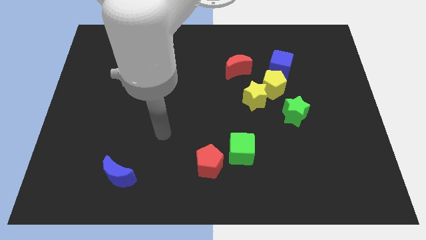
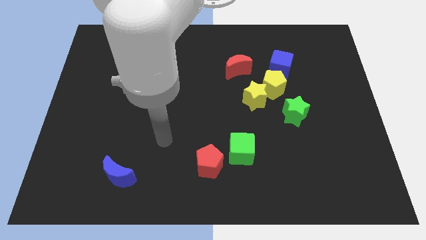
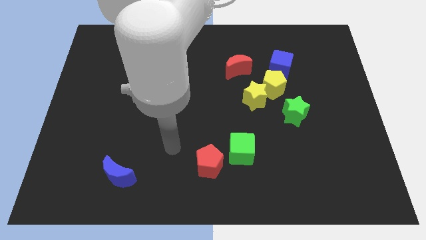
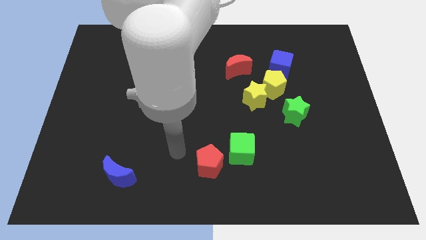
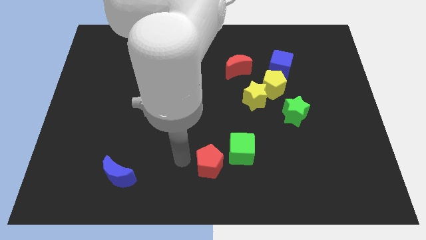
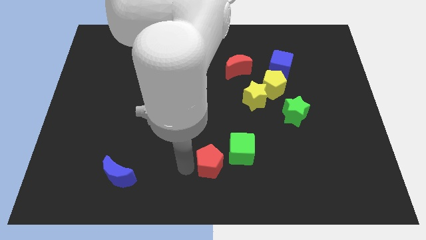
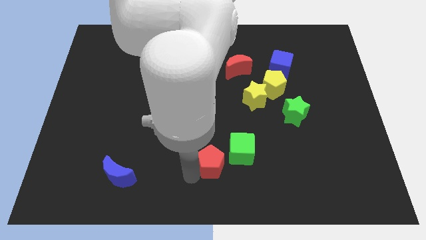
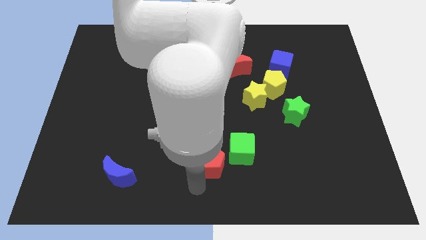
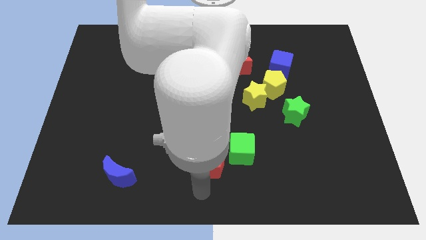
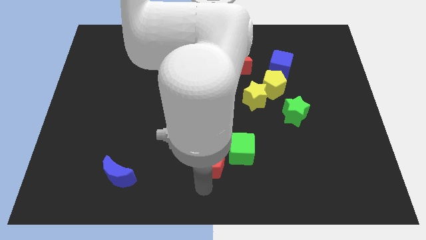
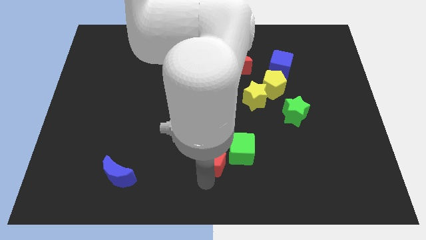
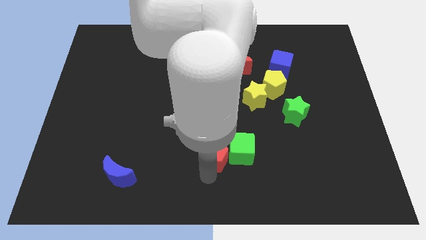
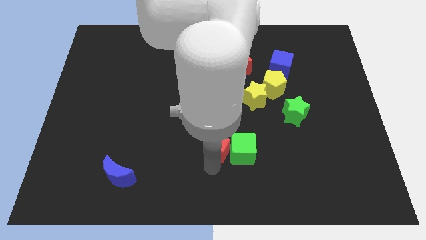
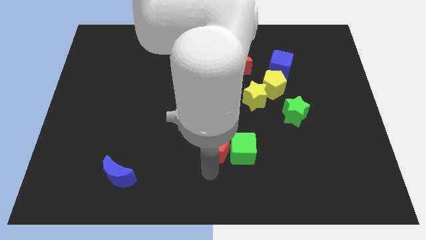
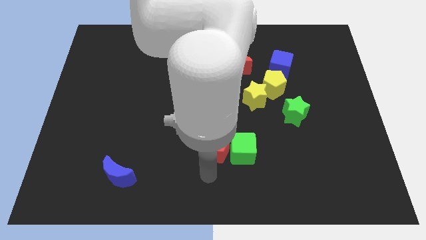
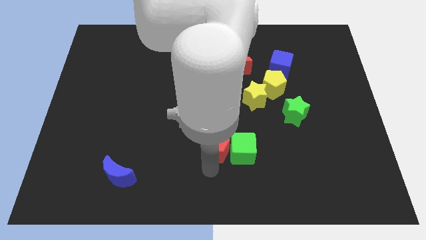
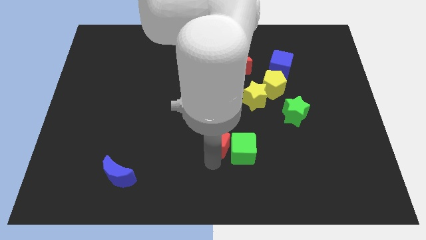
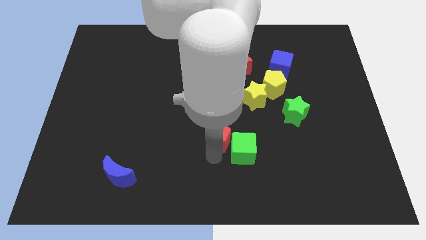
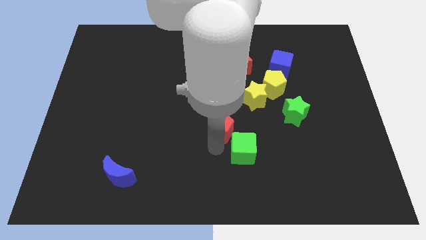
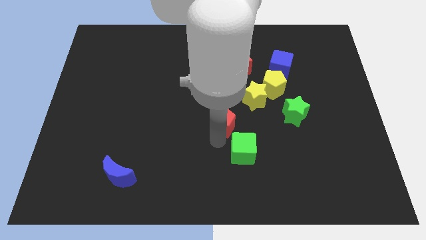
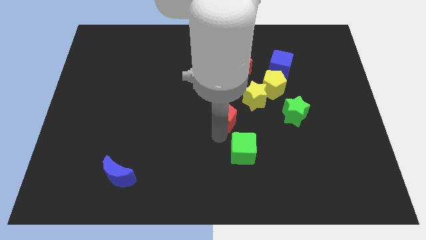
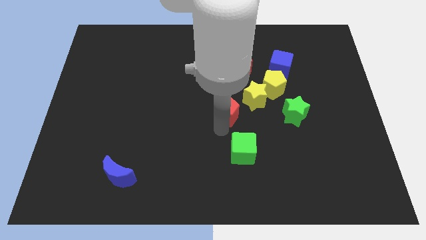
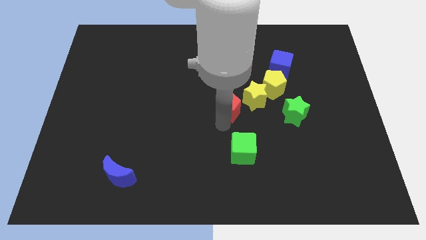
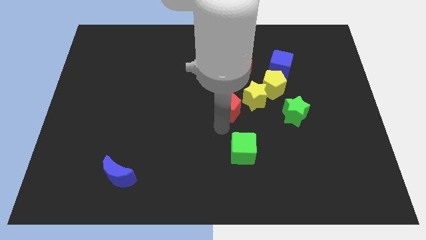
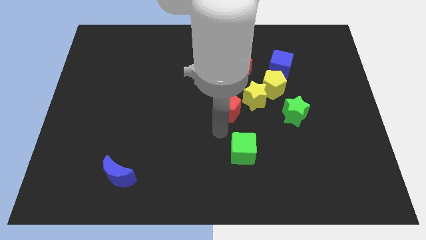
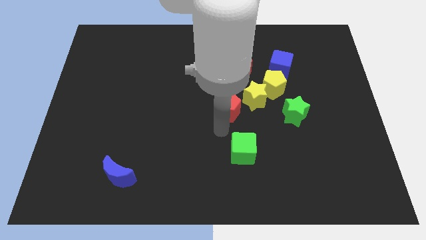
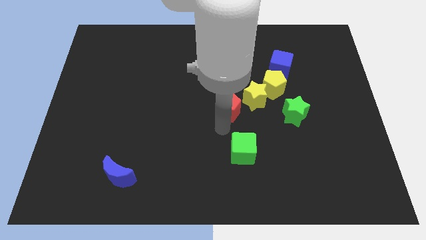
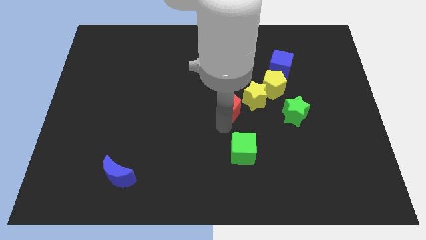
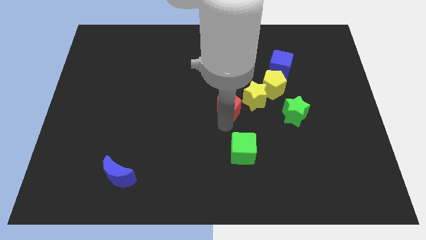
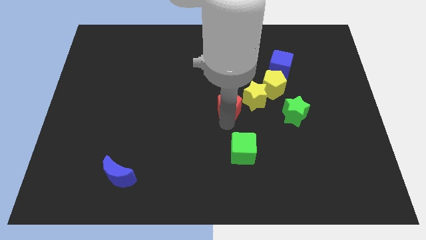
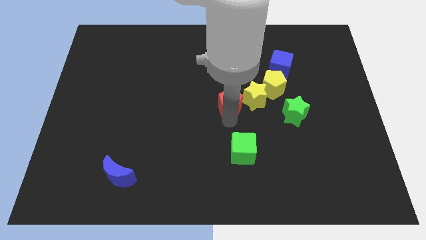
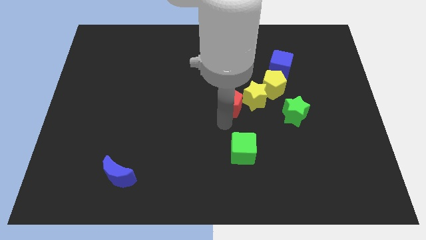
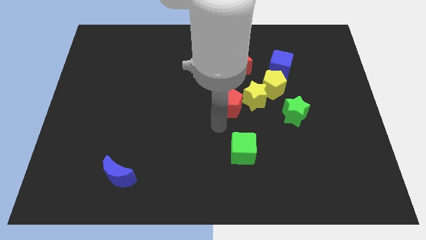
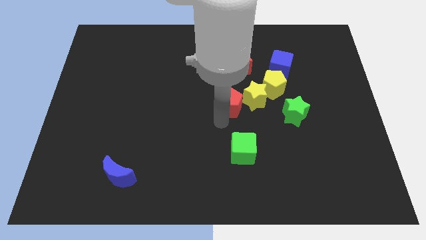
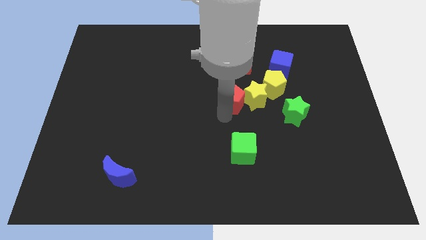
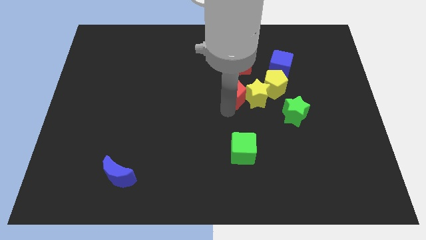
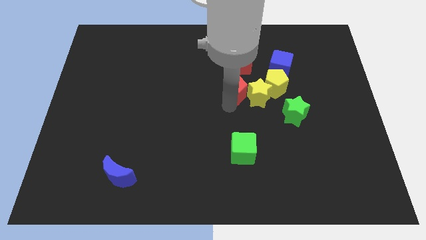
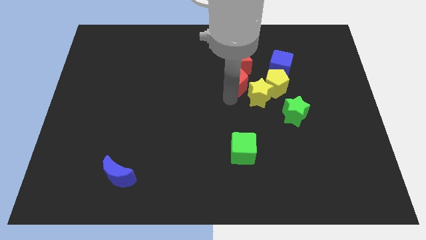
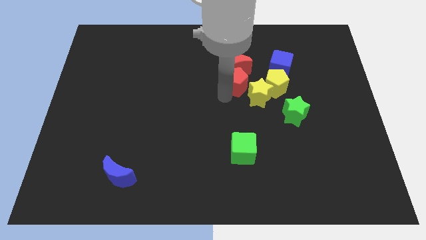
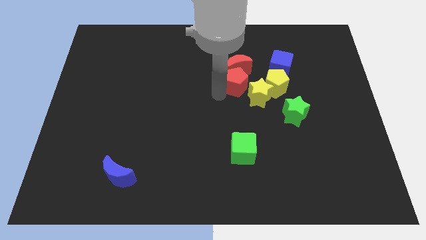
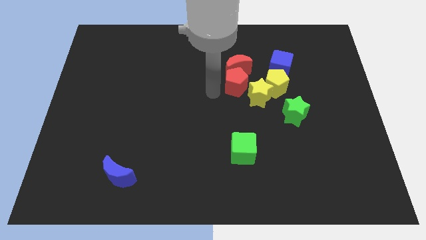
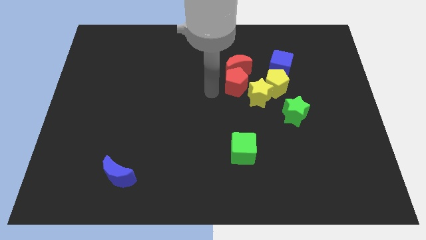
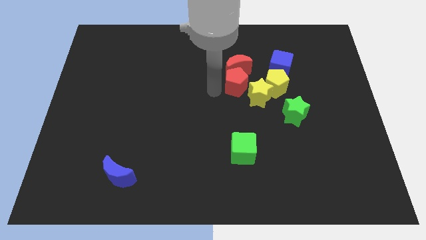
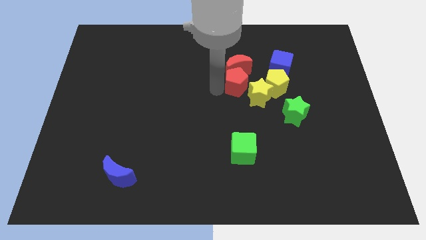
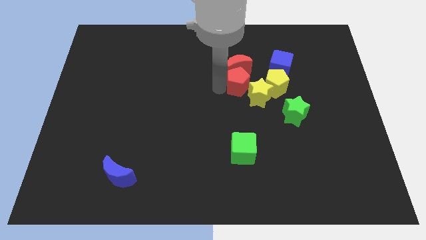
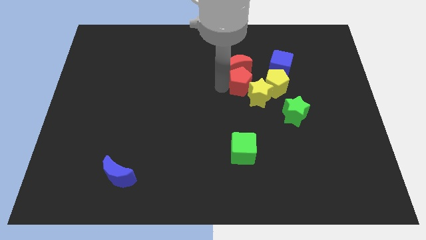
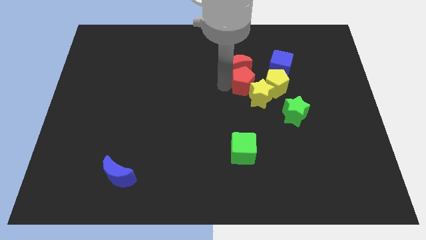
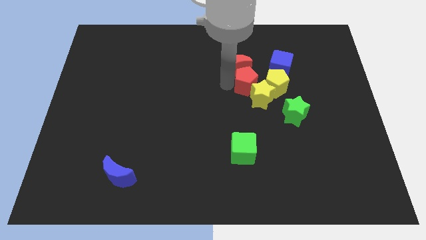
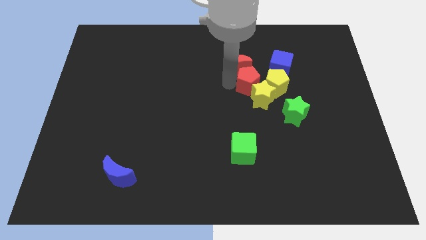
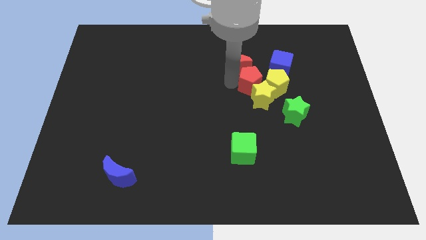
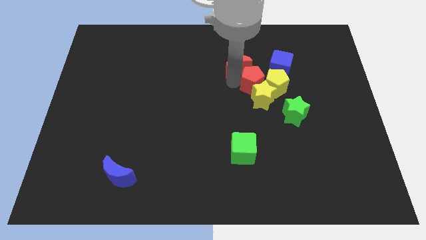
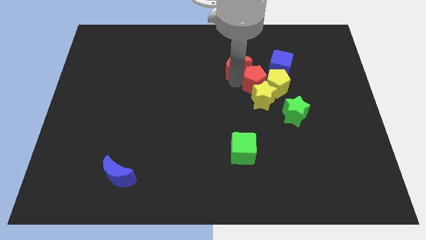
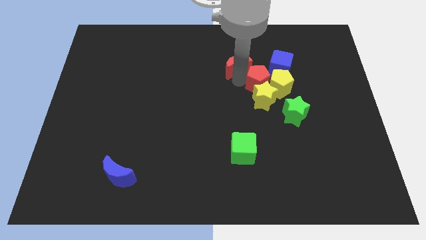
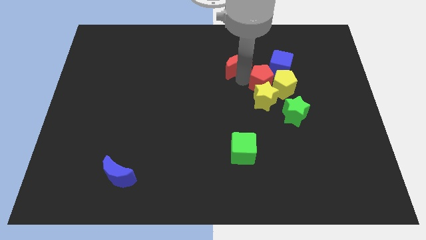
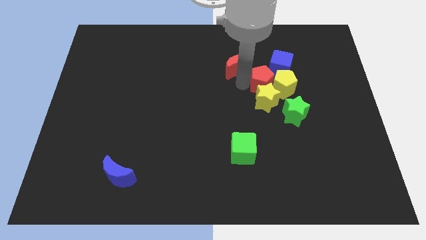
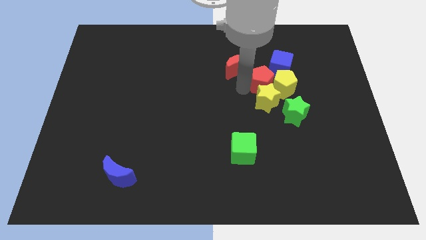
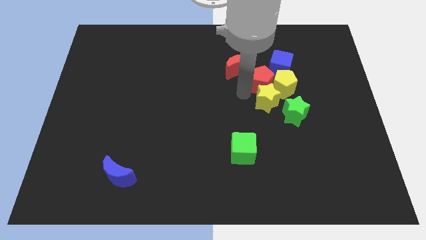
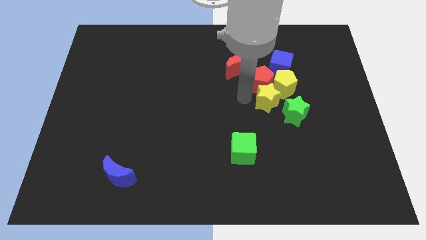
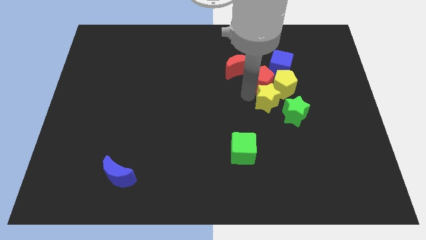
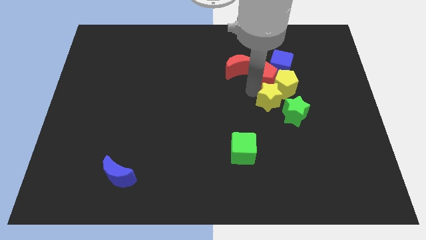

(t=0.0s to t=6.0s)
move the red pentagon next to the blue cube

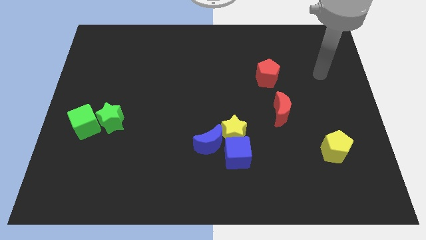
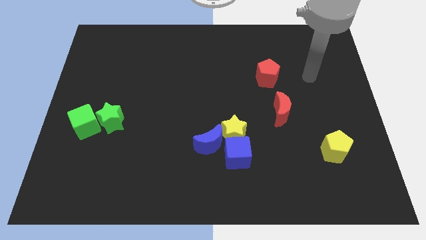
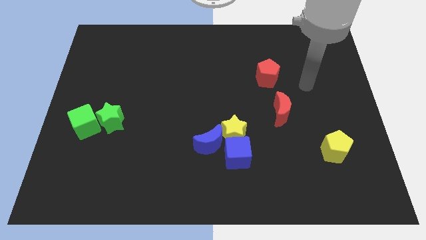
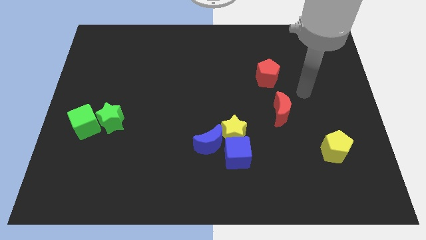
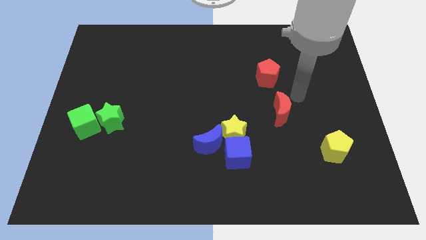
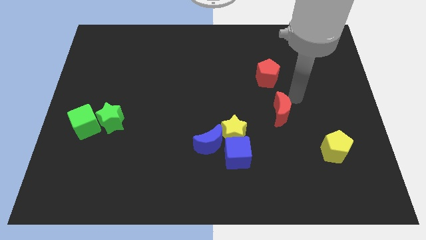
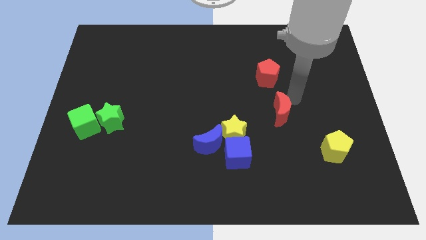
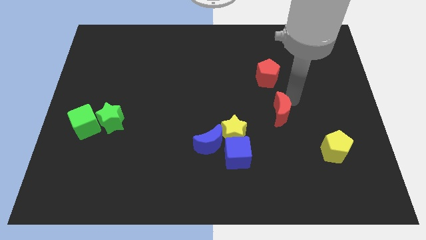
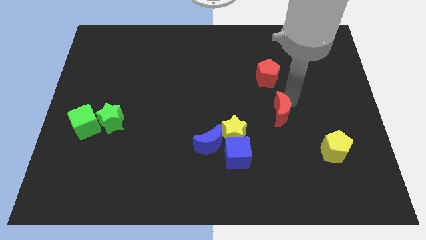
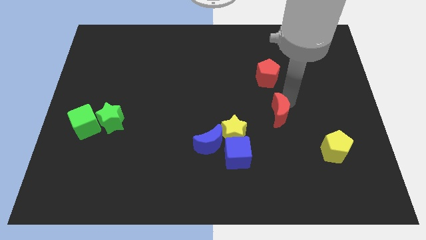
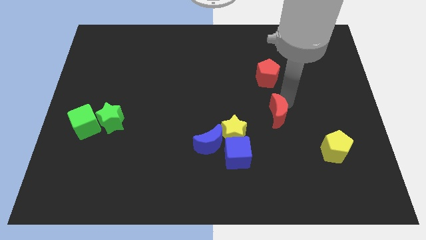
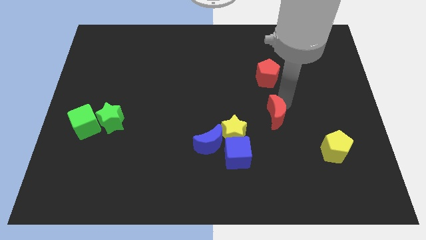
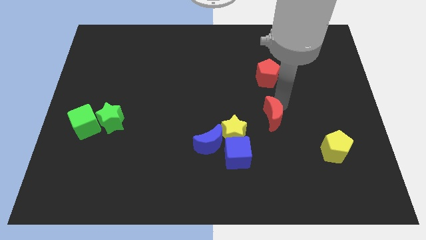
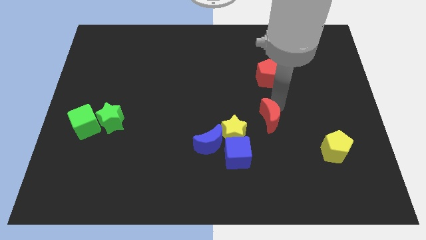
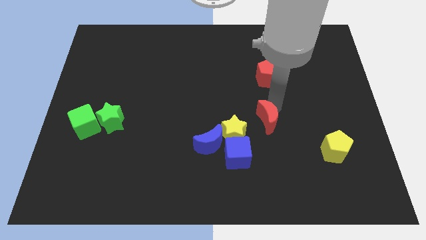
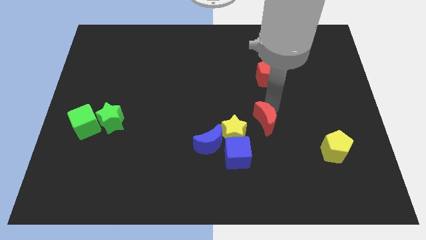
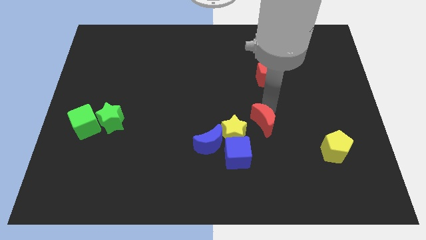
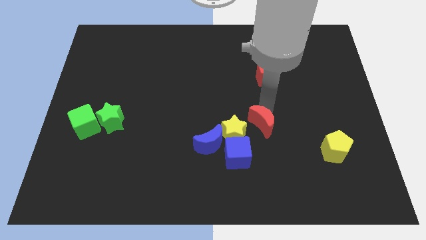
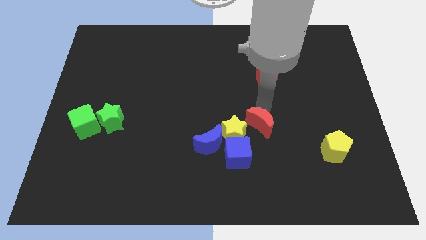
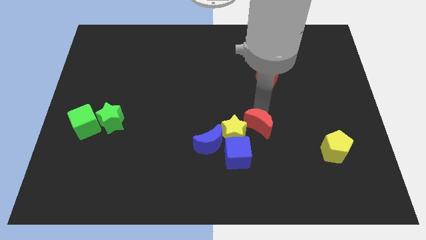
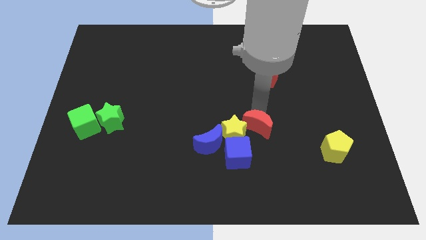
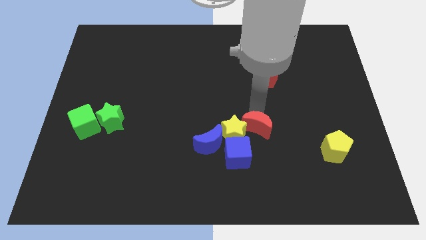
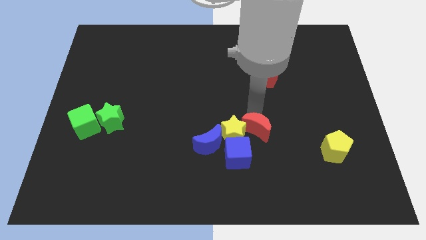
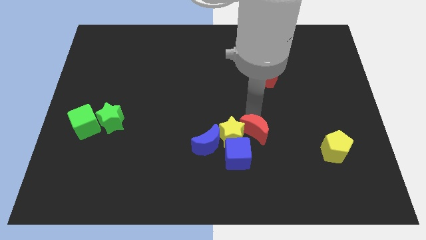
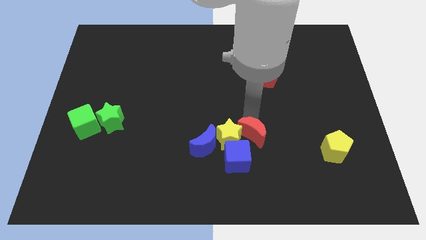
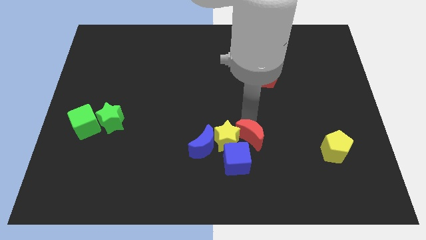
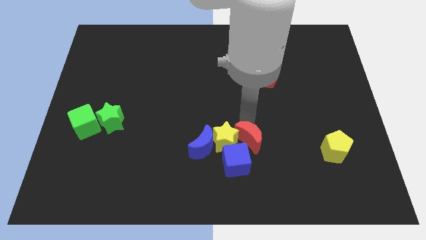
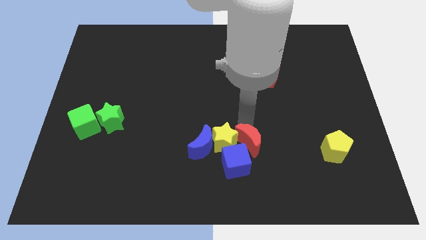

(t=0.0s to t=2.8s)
slide the red moon towards the blue cube
